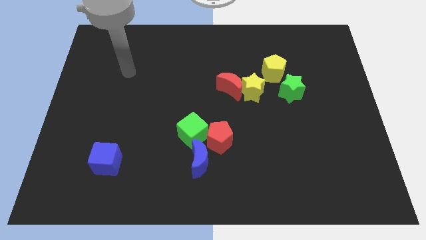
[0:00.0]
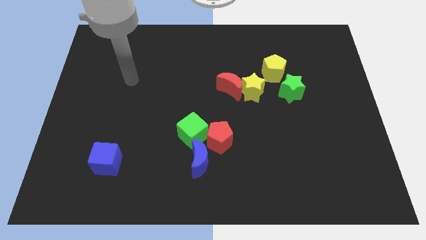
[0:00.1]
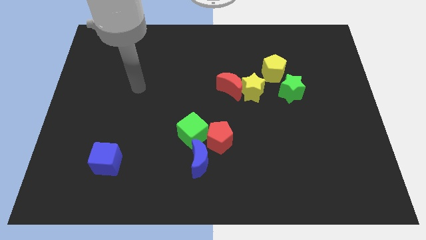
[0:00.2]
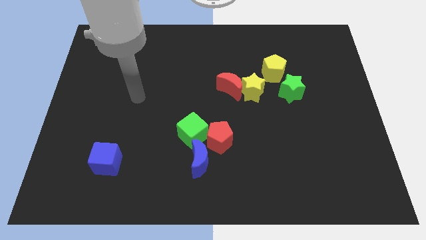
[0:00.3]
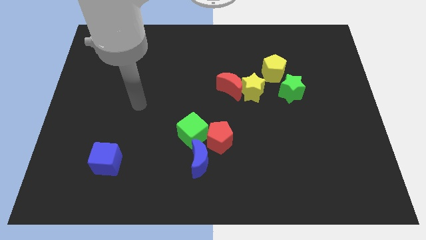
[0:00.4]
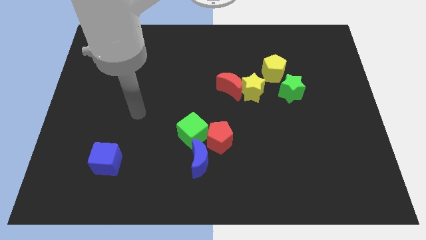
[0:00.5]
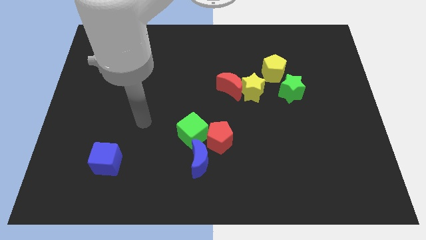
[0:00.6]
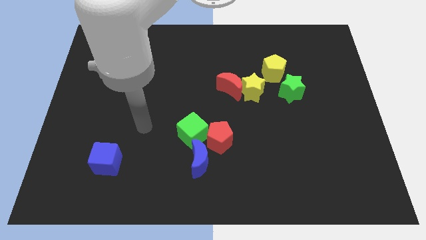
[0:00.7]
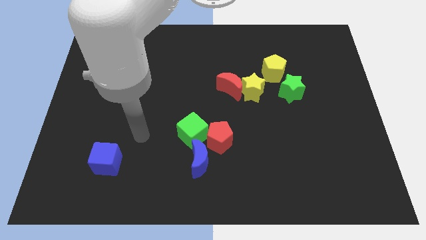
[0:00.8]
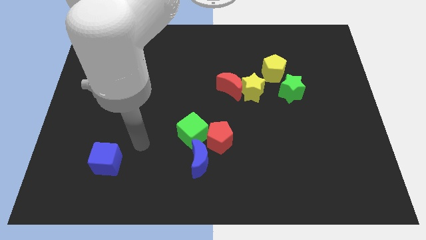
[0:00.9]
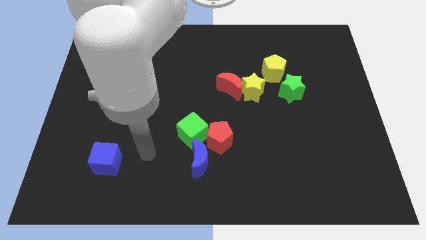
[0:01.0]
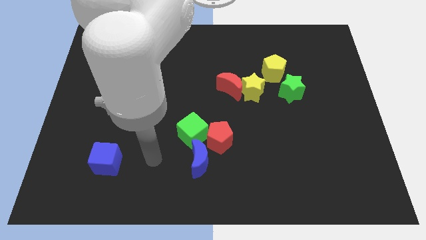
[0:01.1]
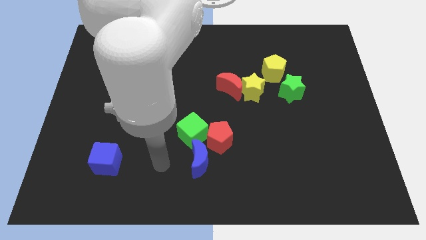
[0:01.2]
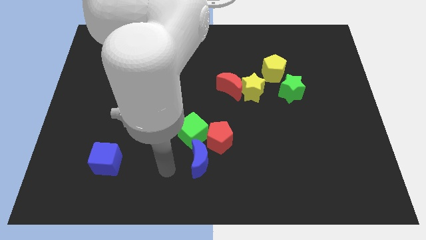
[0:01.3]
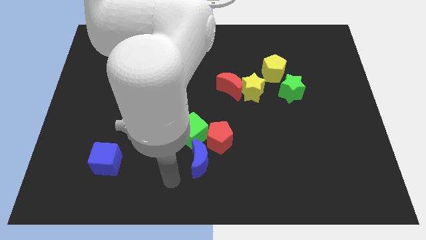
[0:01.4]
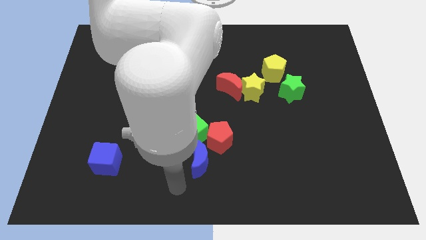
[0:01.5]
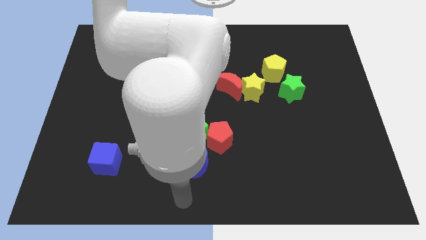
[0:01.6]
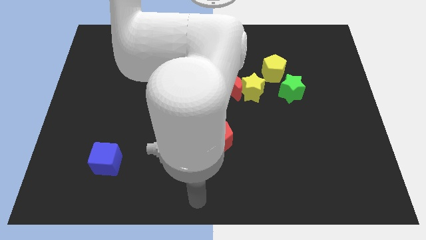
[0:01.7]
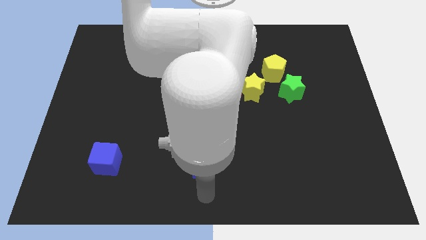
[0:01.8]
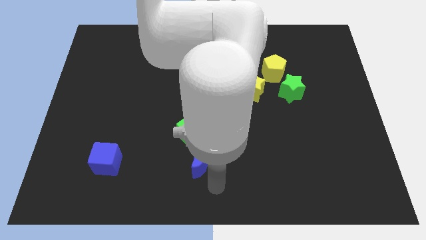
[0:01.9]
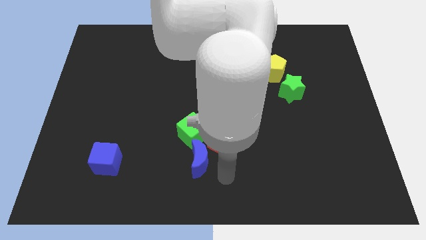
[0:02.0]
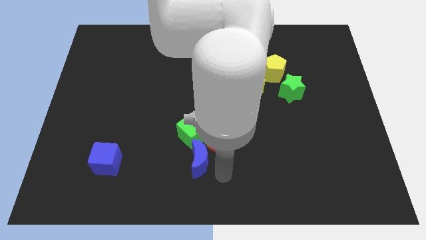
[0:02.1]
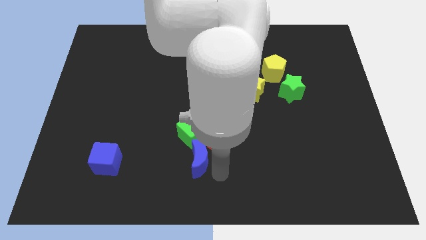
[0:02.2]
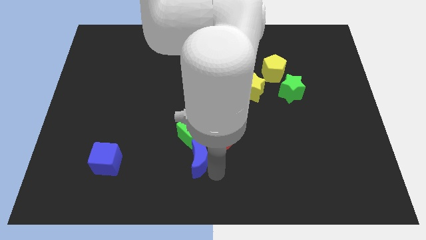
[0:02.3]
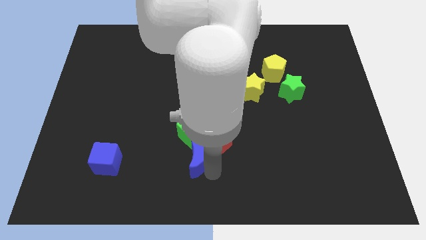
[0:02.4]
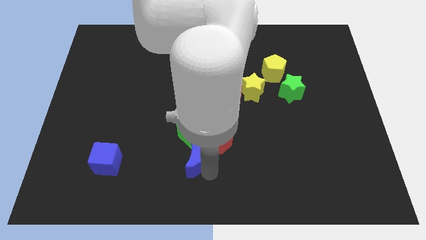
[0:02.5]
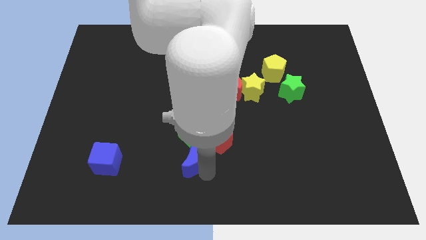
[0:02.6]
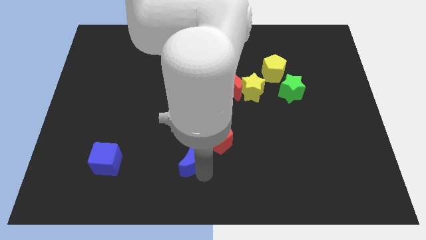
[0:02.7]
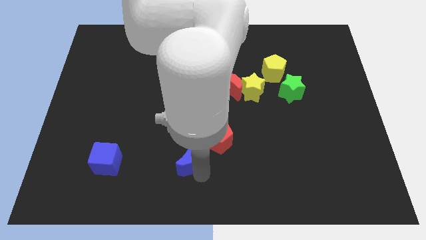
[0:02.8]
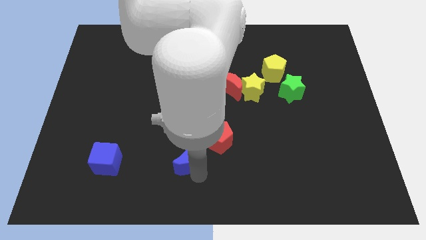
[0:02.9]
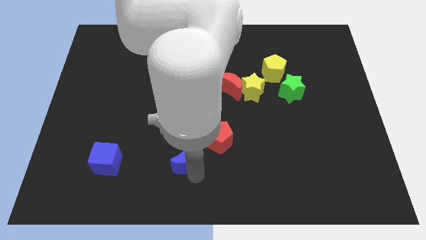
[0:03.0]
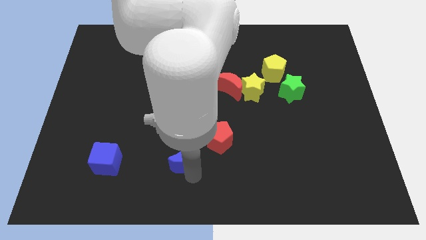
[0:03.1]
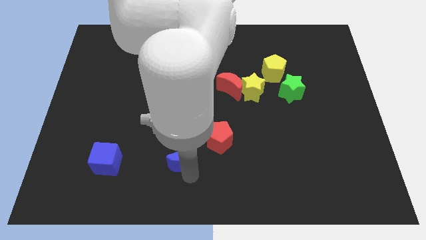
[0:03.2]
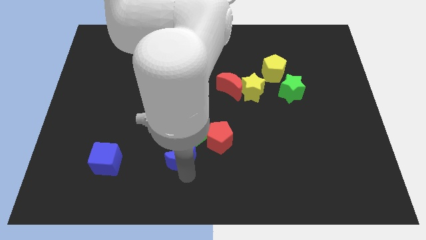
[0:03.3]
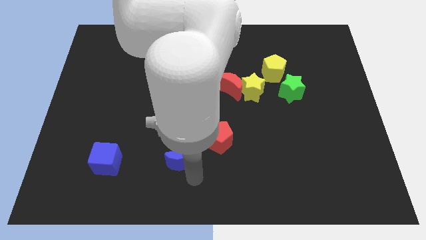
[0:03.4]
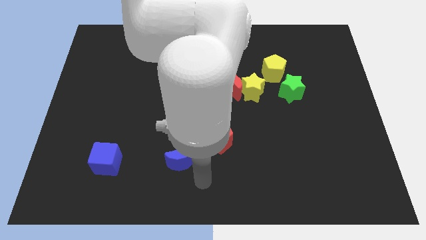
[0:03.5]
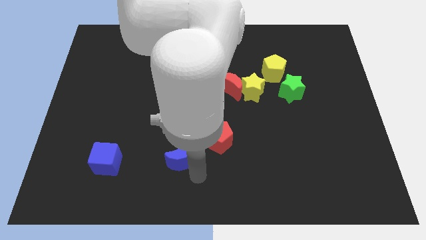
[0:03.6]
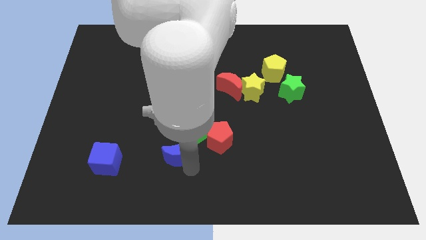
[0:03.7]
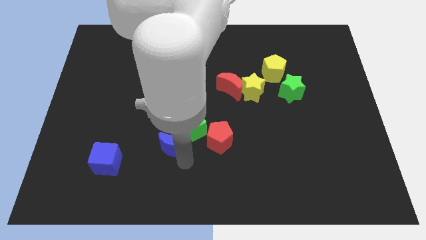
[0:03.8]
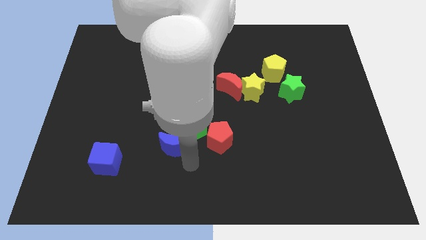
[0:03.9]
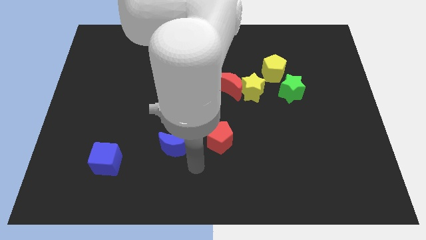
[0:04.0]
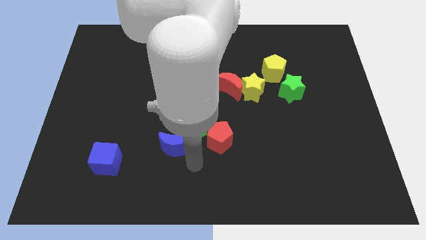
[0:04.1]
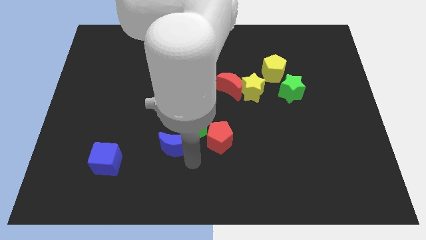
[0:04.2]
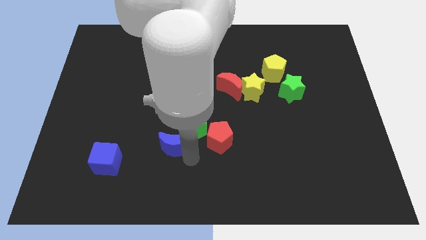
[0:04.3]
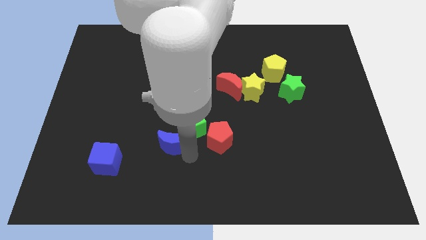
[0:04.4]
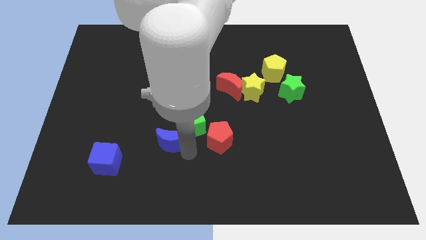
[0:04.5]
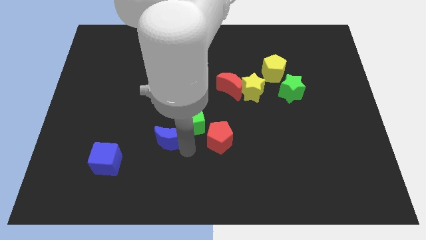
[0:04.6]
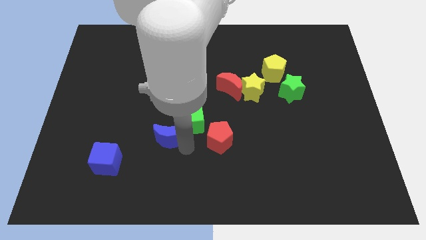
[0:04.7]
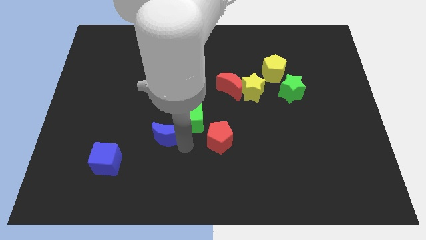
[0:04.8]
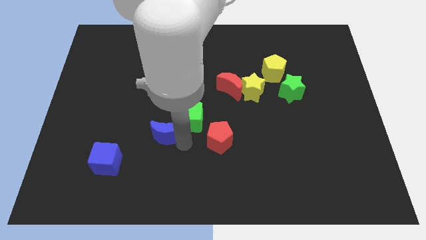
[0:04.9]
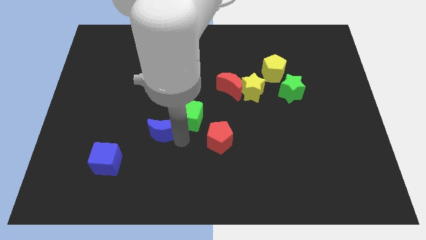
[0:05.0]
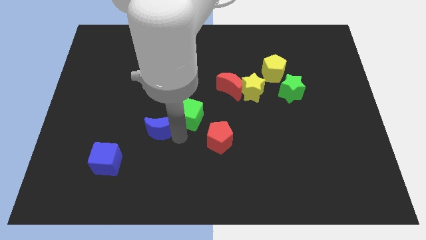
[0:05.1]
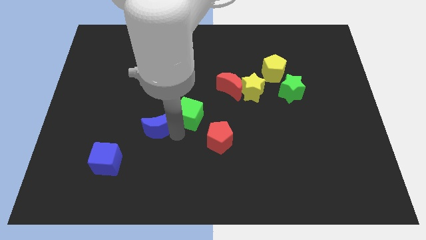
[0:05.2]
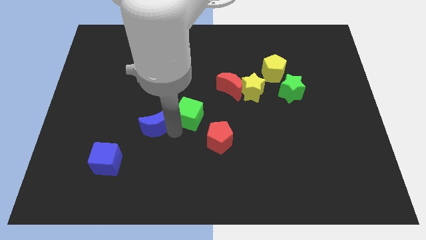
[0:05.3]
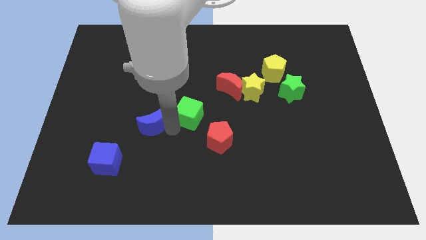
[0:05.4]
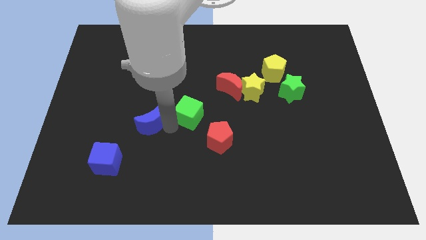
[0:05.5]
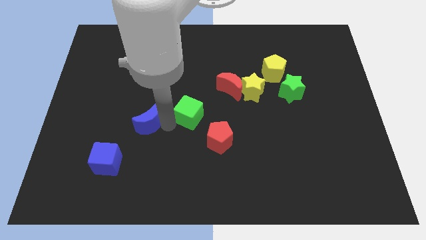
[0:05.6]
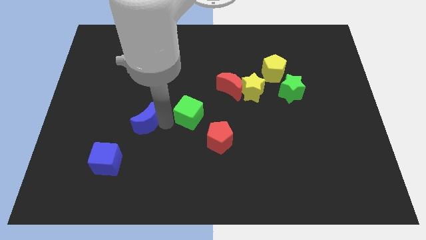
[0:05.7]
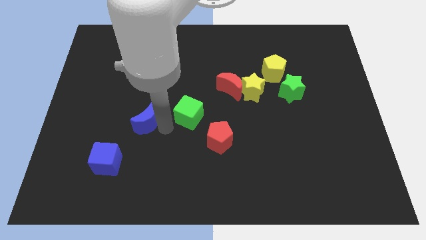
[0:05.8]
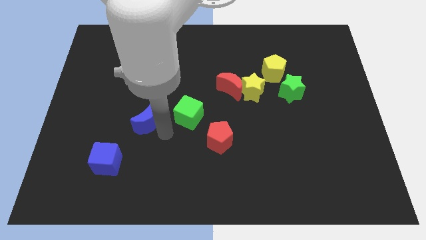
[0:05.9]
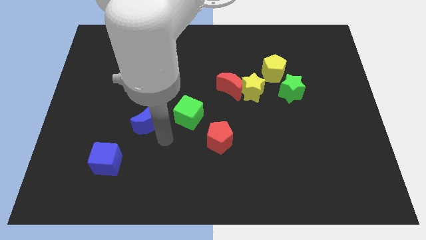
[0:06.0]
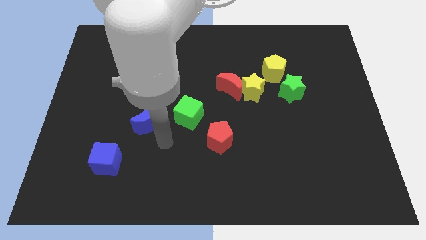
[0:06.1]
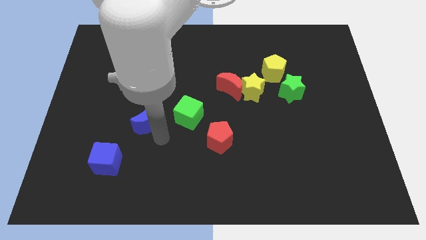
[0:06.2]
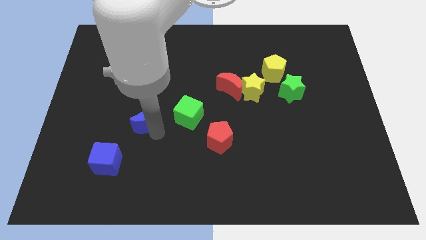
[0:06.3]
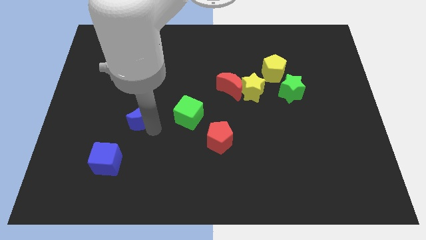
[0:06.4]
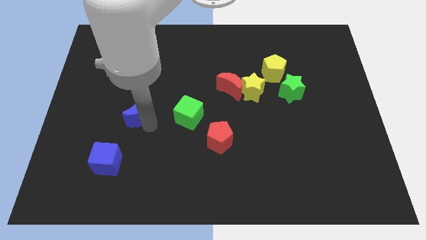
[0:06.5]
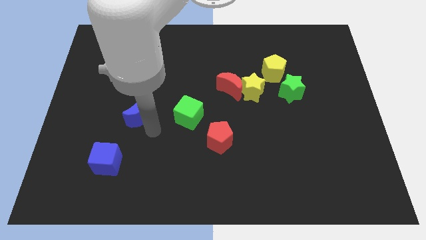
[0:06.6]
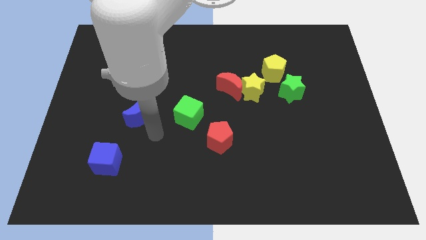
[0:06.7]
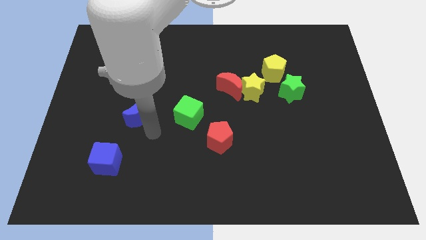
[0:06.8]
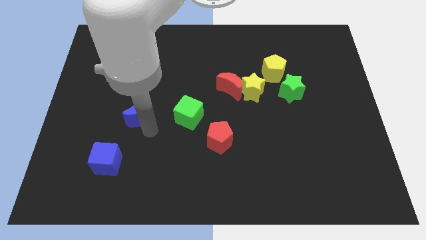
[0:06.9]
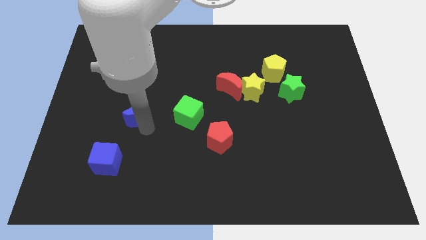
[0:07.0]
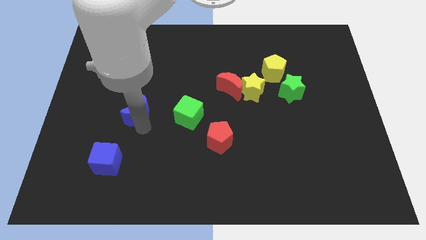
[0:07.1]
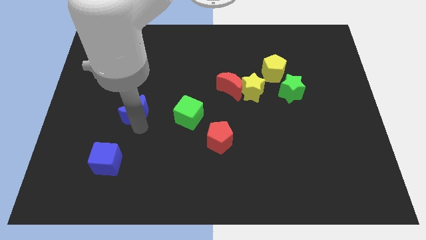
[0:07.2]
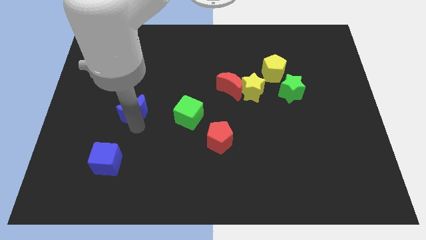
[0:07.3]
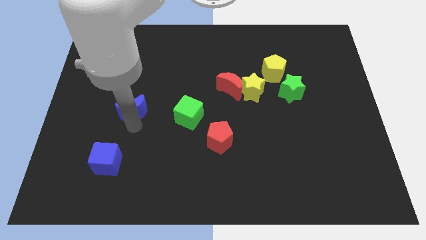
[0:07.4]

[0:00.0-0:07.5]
move the blue moon up and left
